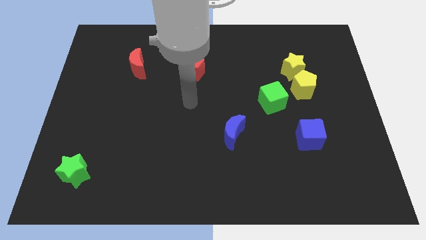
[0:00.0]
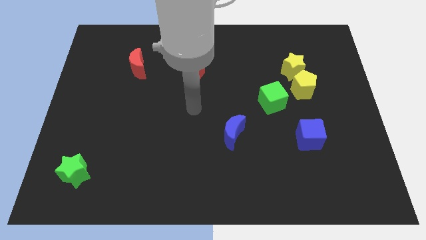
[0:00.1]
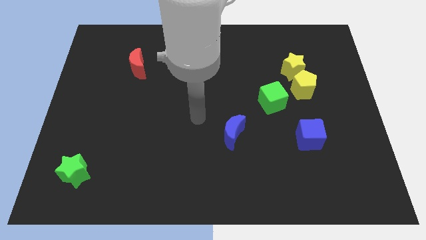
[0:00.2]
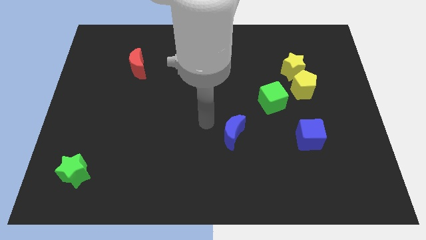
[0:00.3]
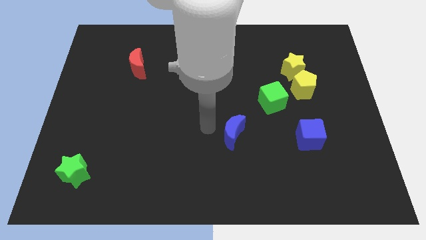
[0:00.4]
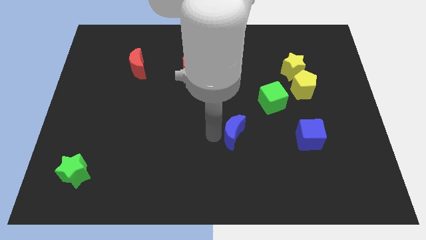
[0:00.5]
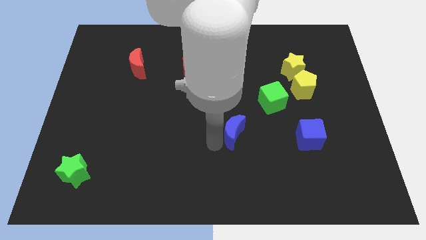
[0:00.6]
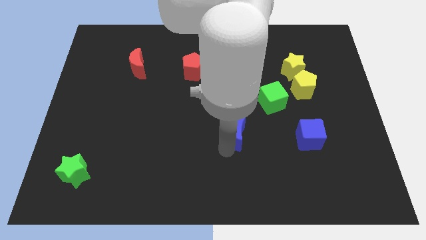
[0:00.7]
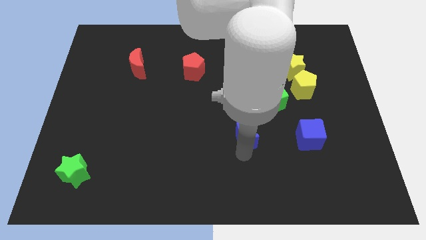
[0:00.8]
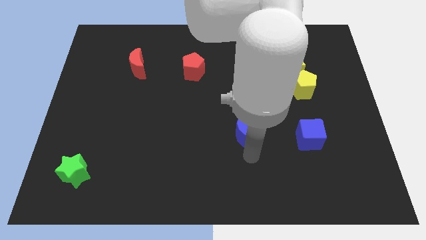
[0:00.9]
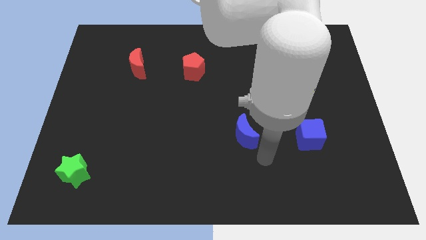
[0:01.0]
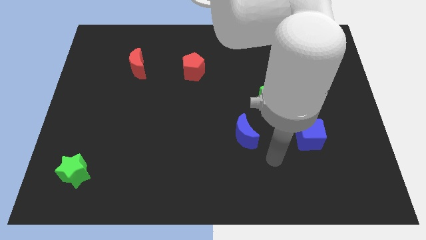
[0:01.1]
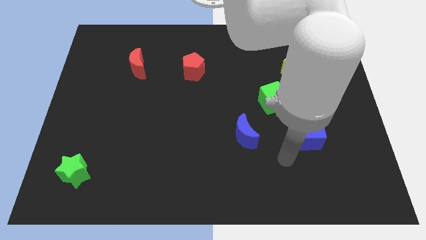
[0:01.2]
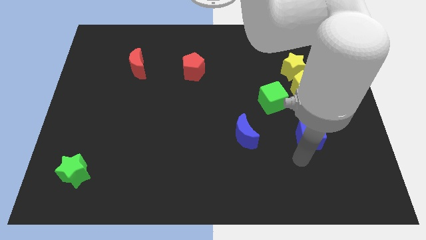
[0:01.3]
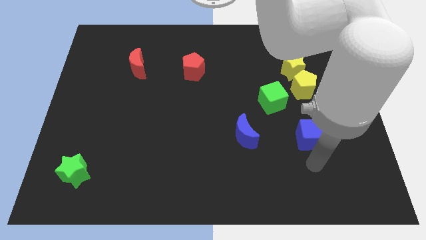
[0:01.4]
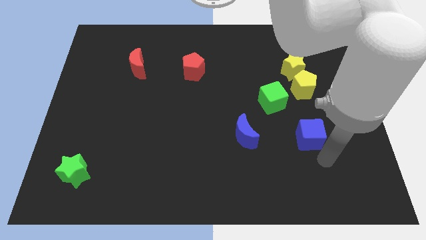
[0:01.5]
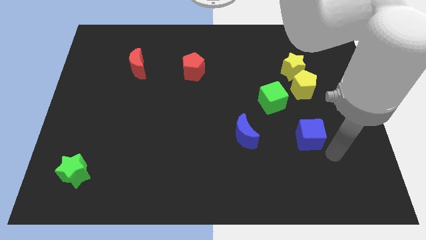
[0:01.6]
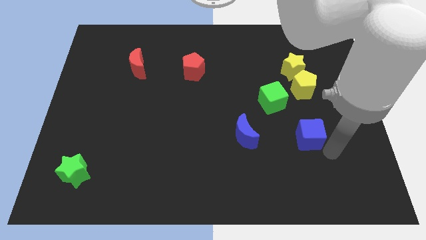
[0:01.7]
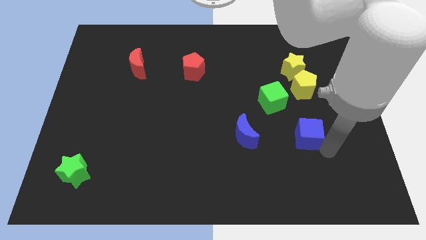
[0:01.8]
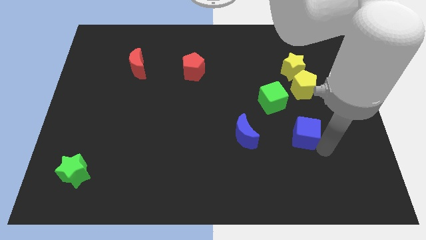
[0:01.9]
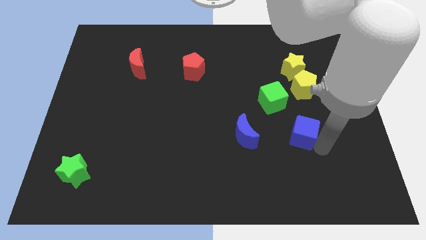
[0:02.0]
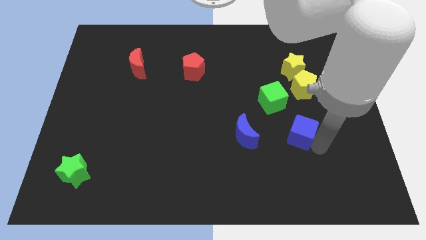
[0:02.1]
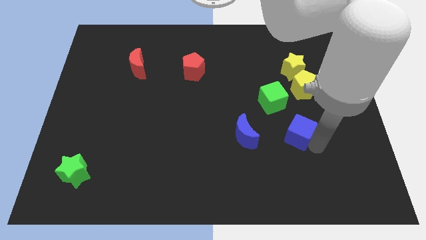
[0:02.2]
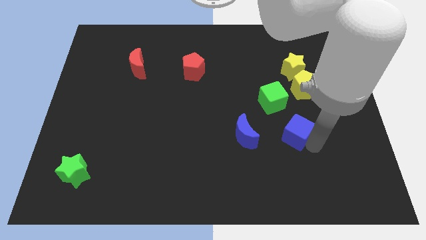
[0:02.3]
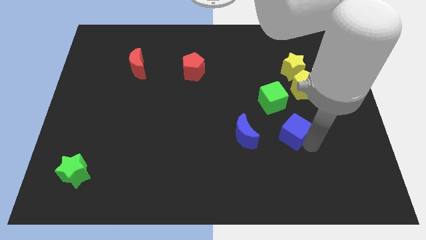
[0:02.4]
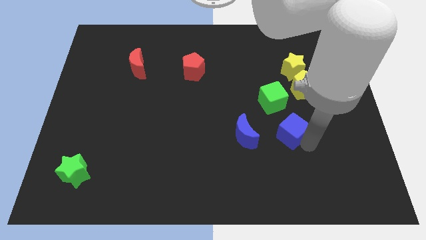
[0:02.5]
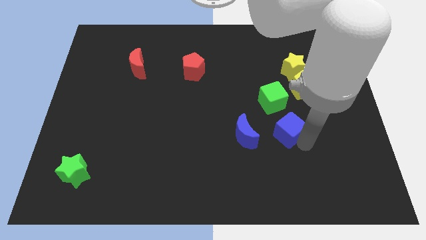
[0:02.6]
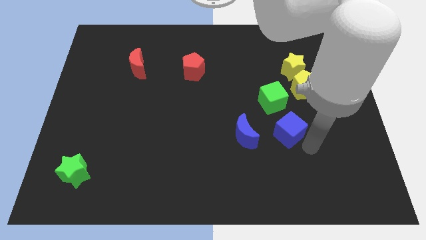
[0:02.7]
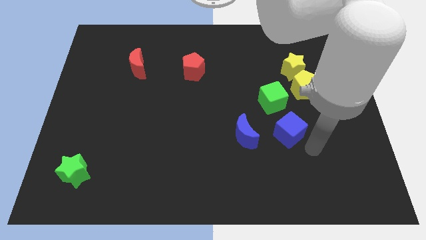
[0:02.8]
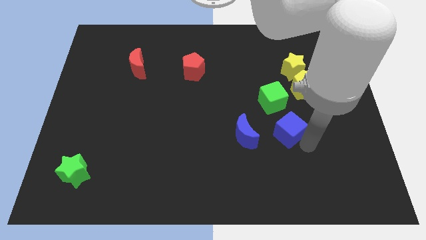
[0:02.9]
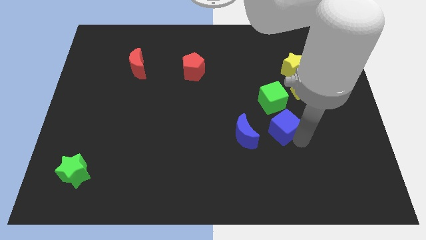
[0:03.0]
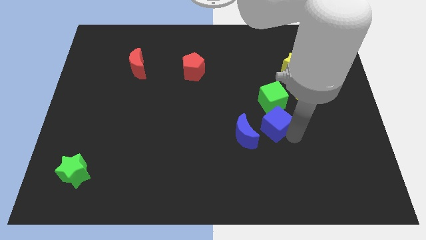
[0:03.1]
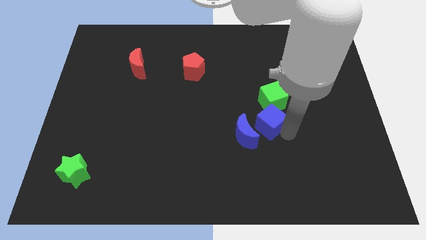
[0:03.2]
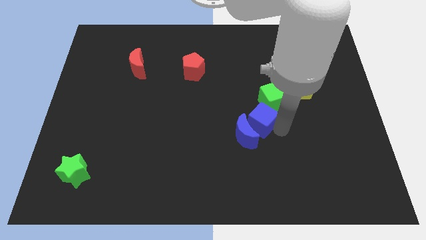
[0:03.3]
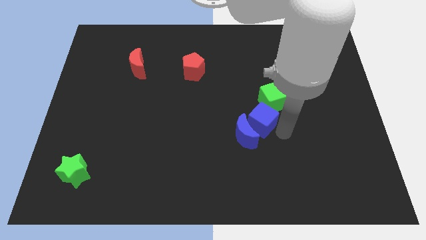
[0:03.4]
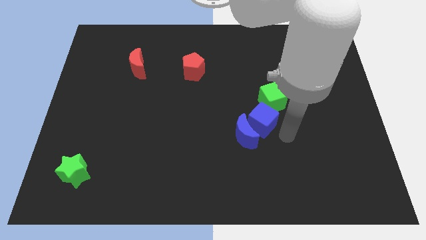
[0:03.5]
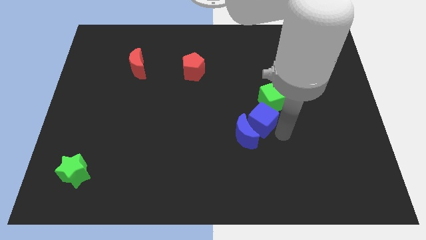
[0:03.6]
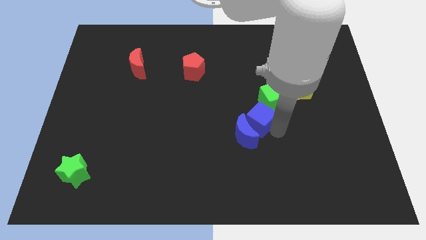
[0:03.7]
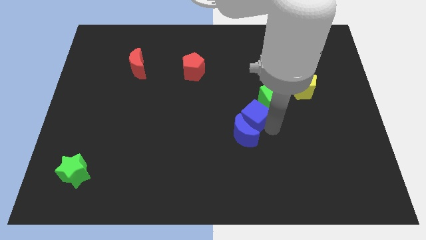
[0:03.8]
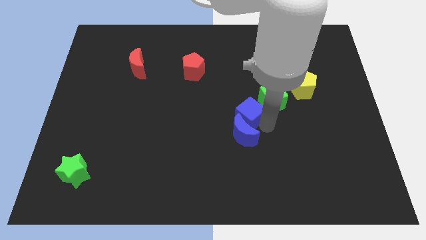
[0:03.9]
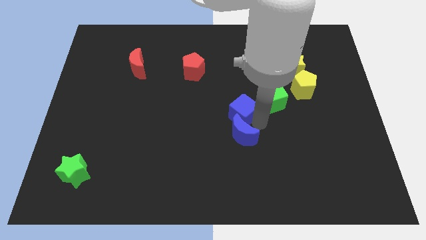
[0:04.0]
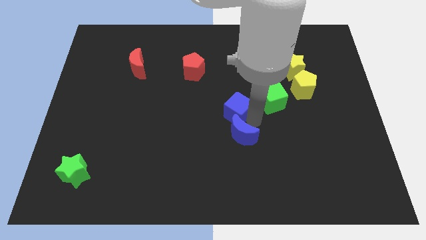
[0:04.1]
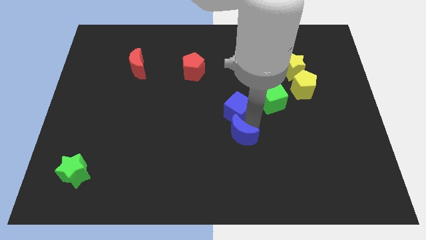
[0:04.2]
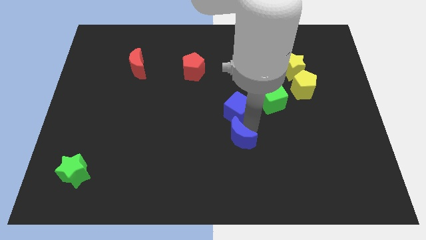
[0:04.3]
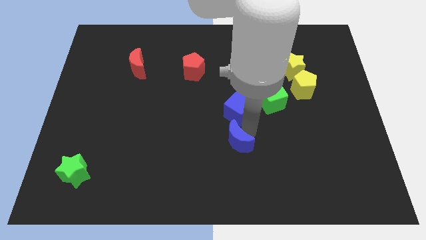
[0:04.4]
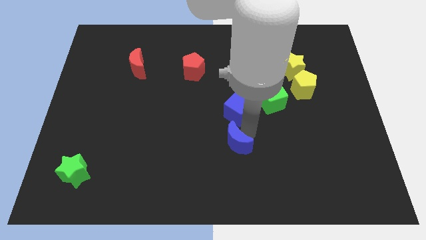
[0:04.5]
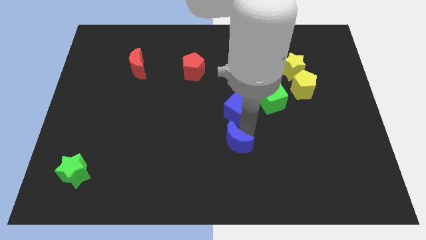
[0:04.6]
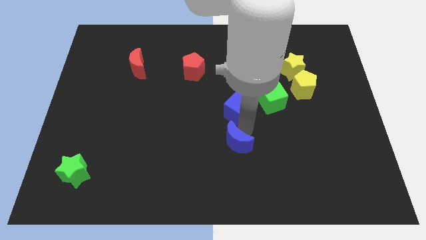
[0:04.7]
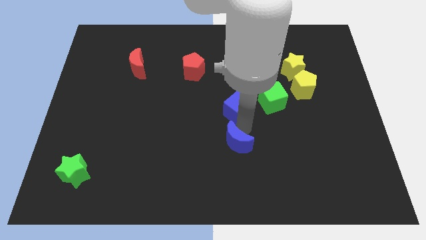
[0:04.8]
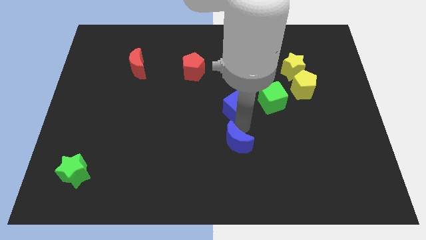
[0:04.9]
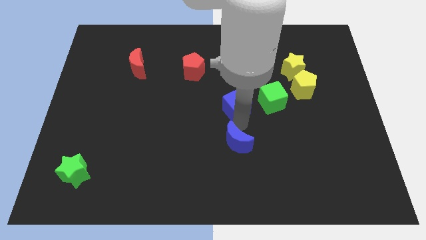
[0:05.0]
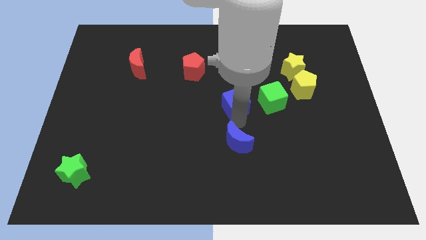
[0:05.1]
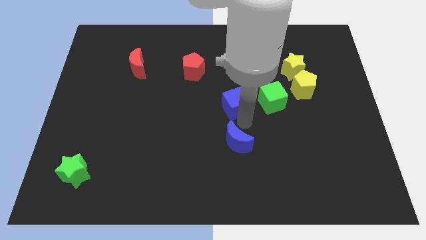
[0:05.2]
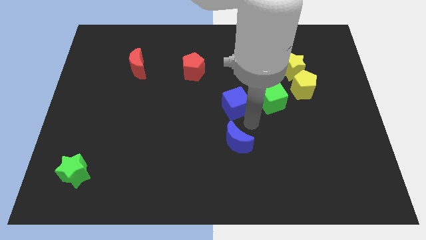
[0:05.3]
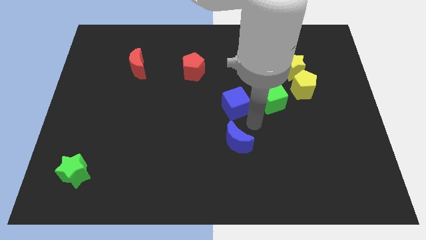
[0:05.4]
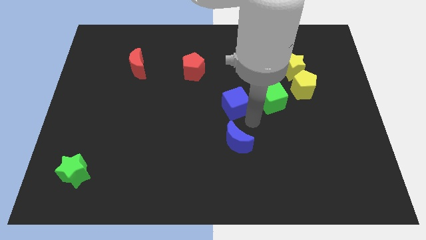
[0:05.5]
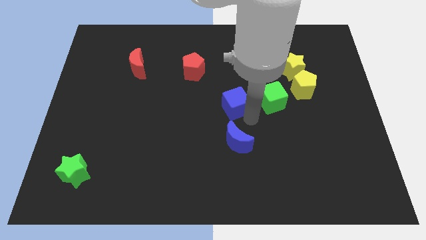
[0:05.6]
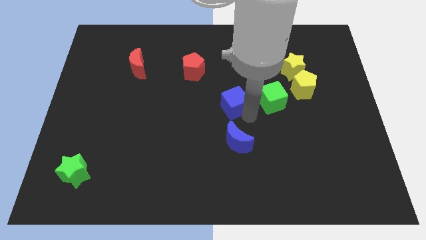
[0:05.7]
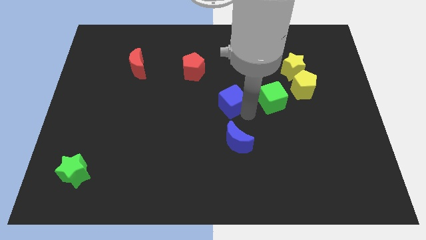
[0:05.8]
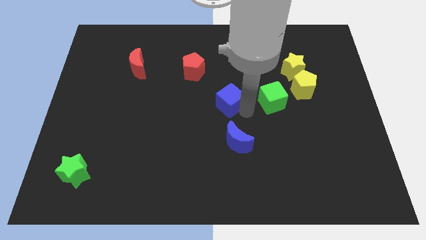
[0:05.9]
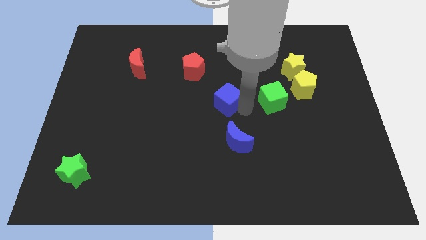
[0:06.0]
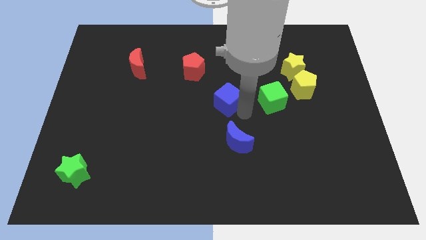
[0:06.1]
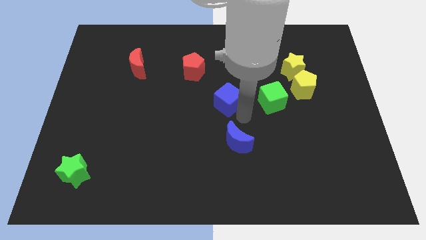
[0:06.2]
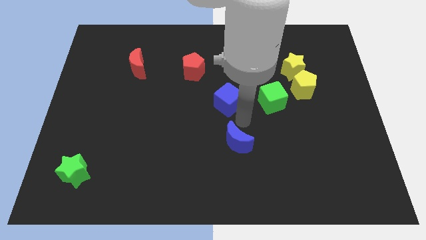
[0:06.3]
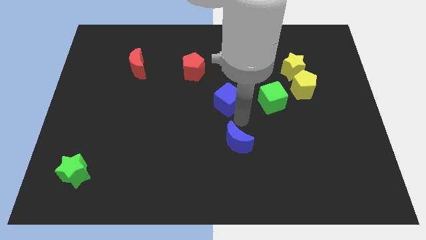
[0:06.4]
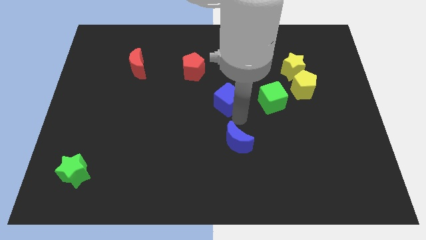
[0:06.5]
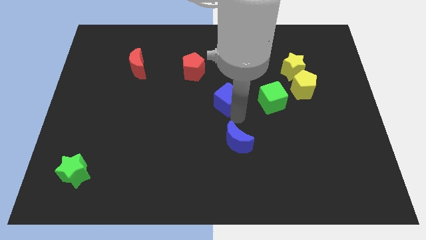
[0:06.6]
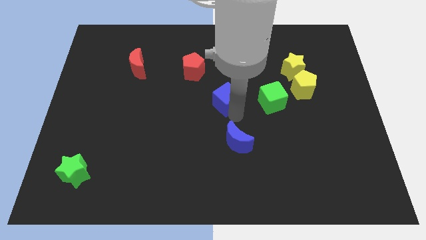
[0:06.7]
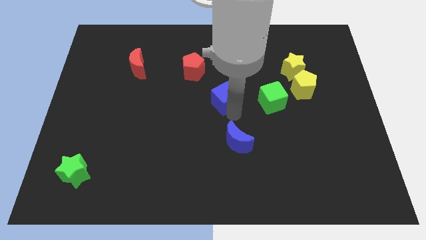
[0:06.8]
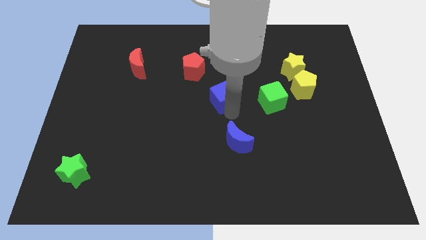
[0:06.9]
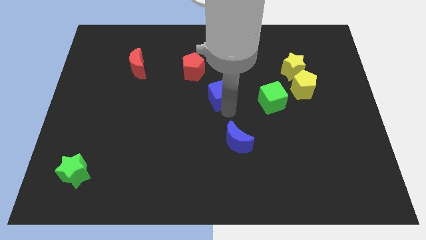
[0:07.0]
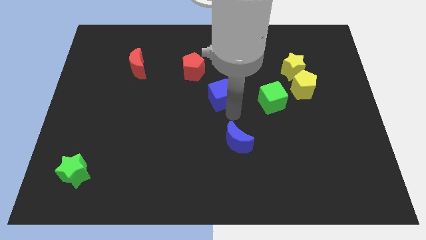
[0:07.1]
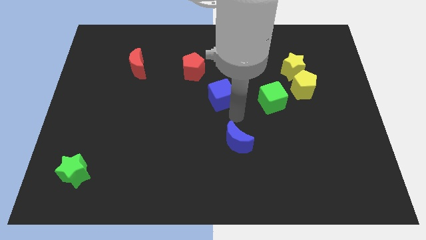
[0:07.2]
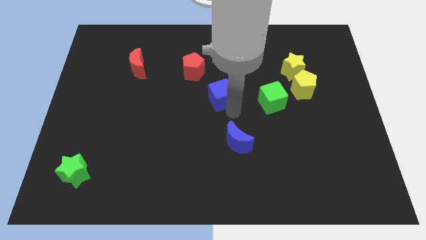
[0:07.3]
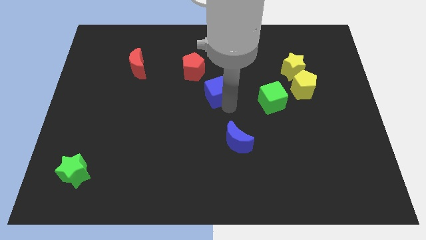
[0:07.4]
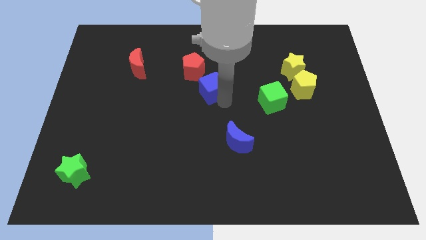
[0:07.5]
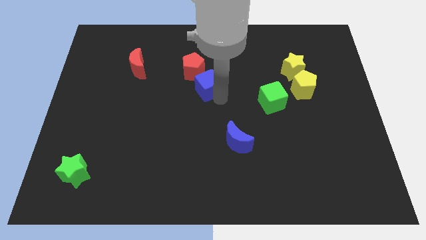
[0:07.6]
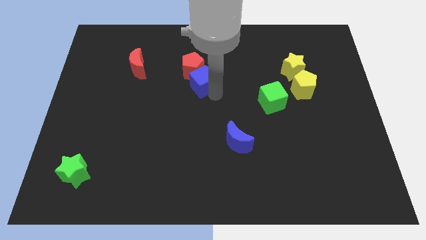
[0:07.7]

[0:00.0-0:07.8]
put the blue cube to the red pentagon
